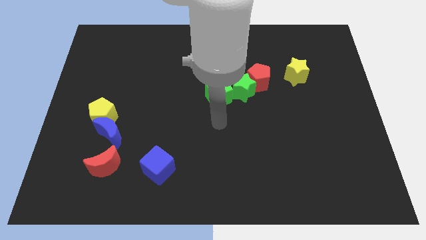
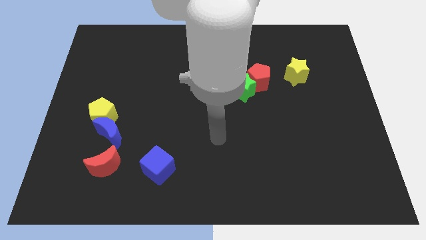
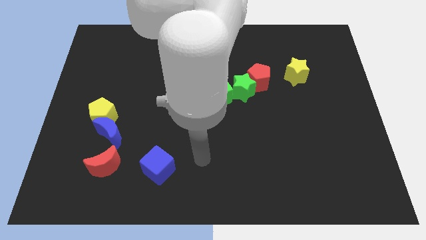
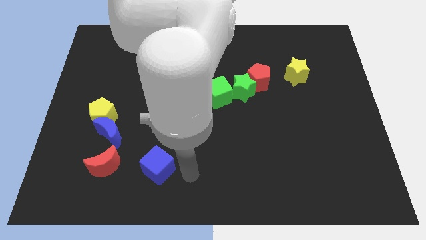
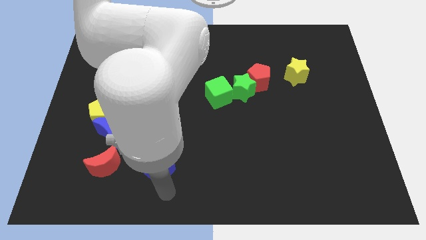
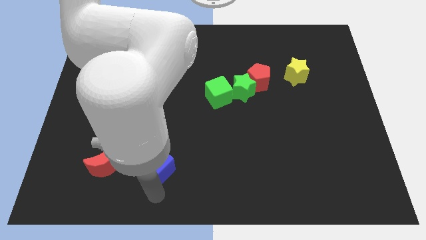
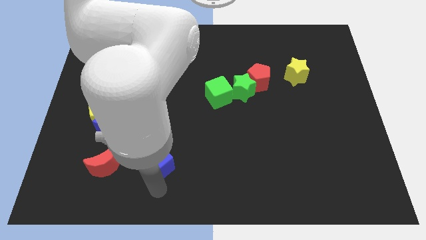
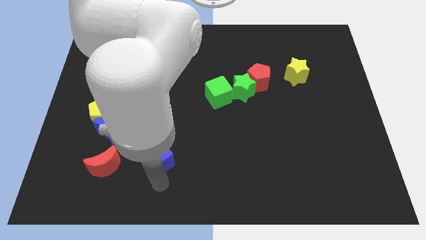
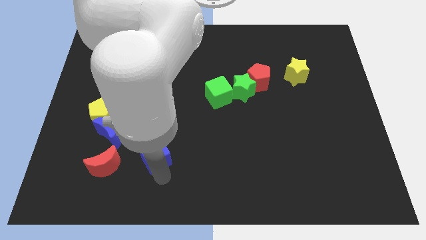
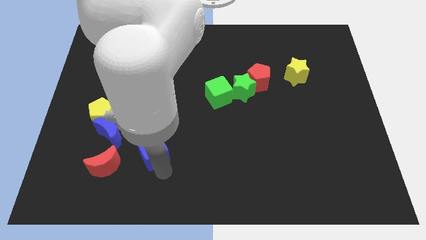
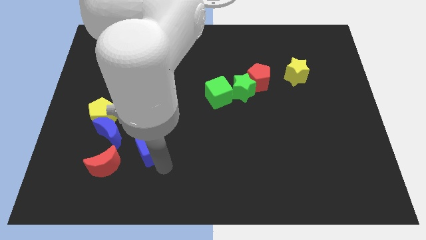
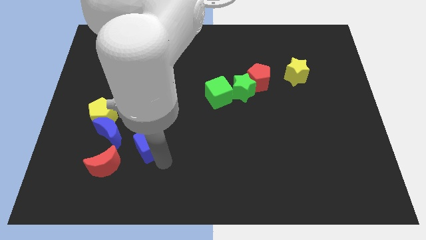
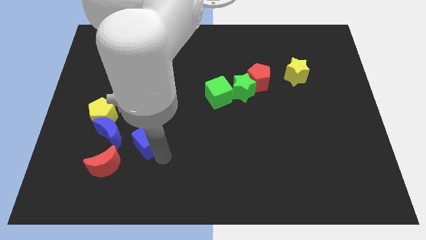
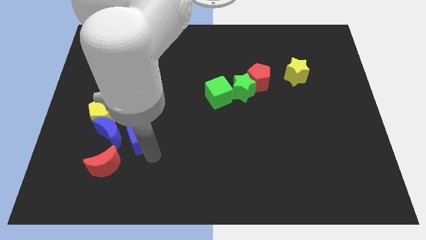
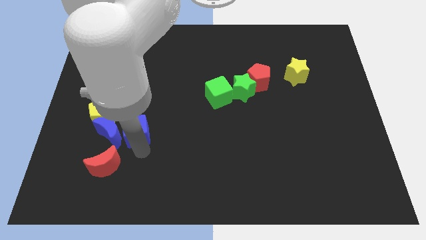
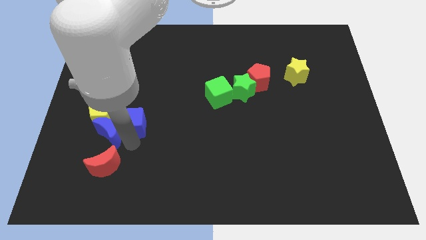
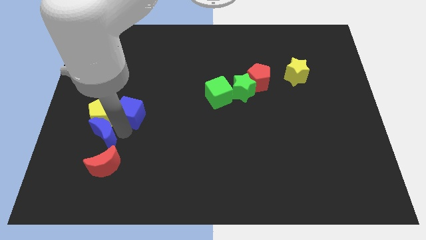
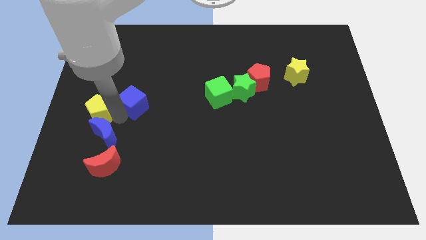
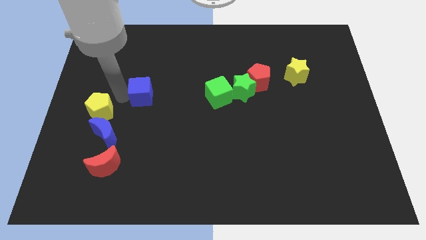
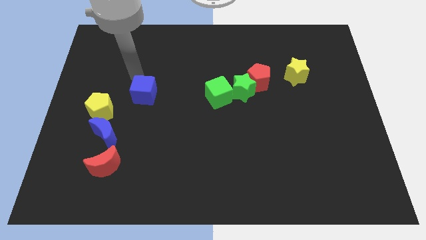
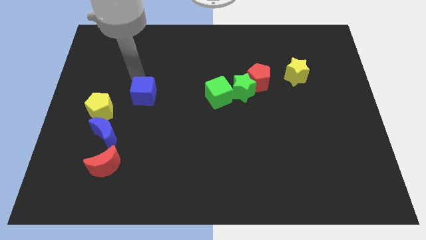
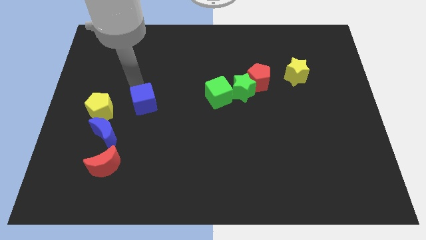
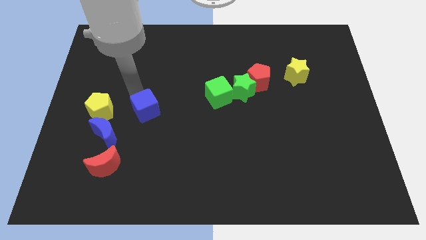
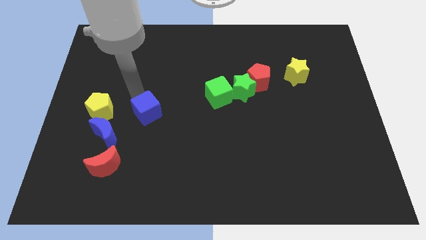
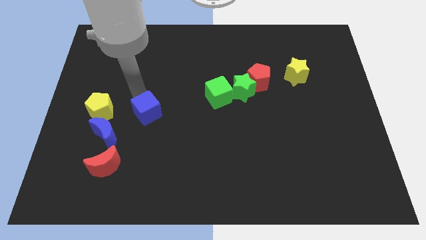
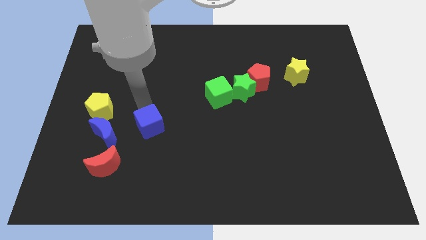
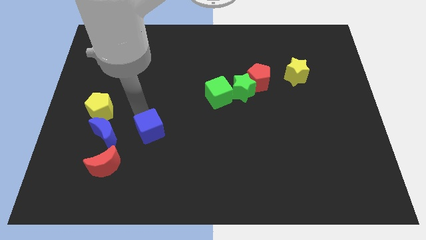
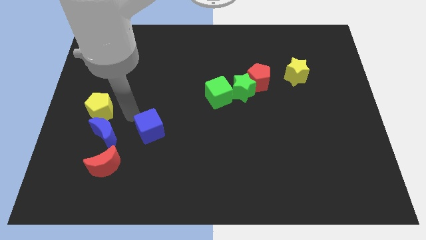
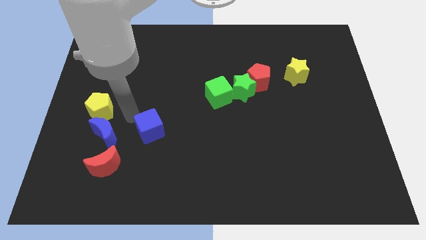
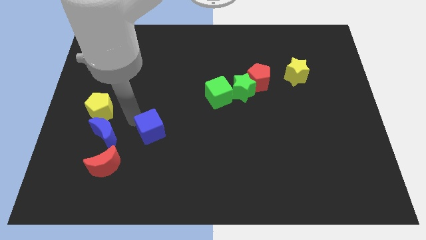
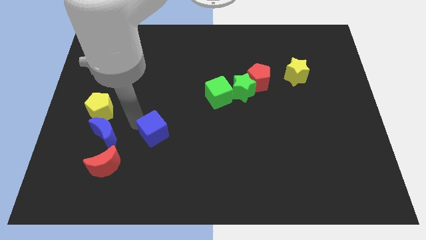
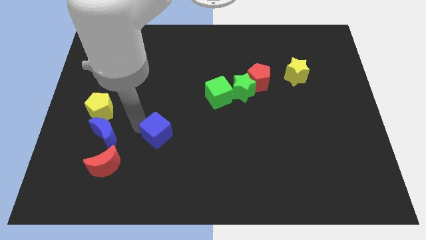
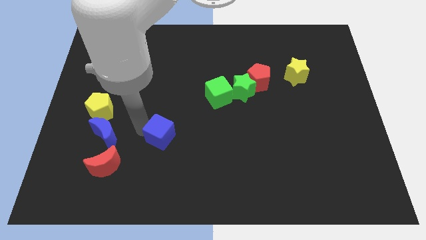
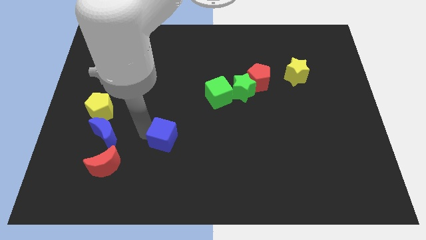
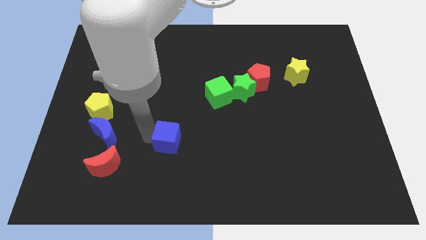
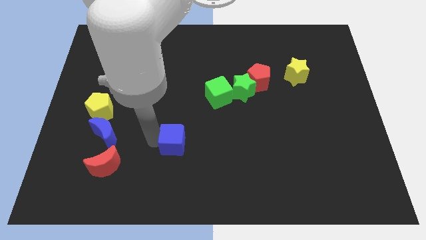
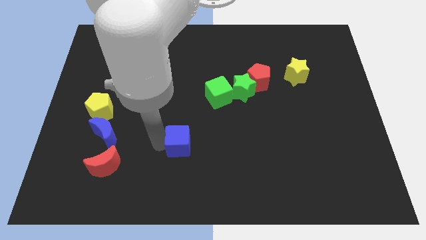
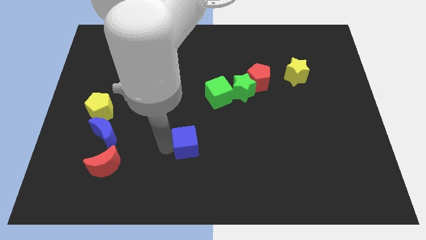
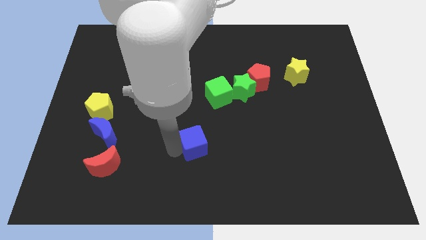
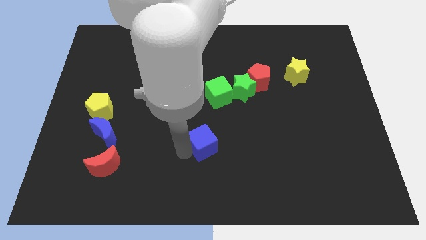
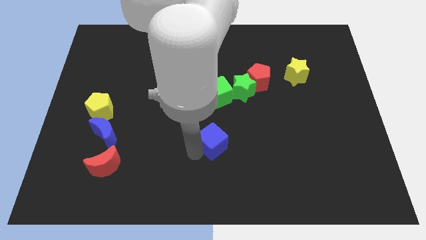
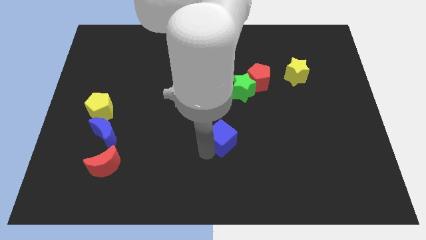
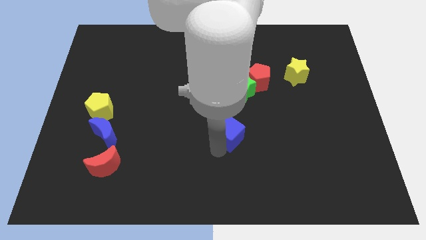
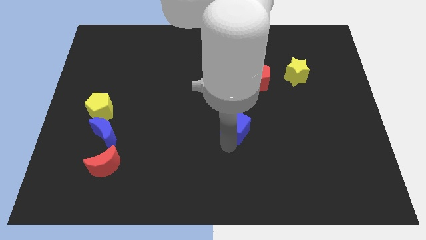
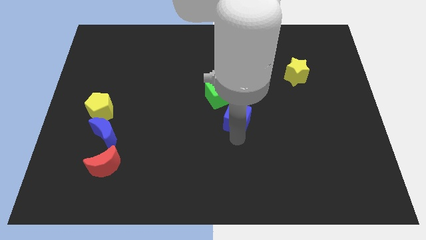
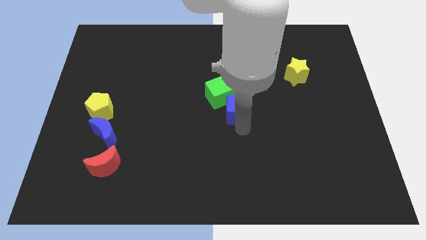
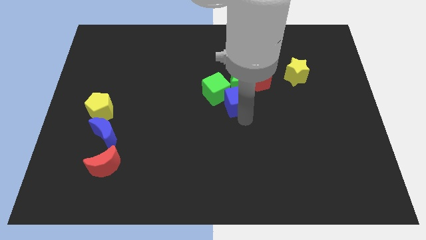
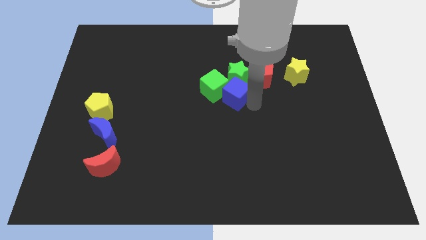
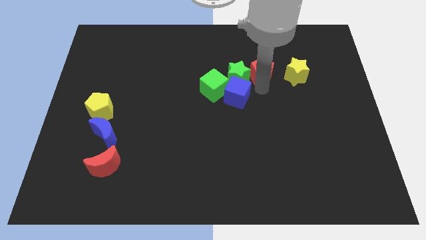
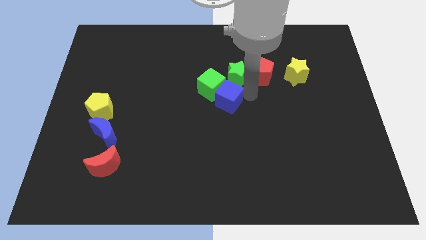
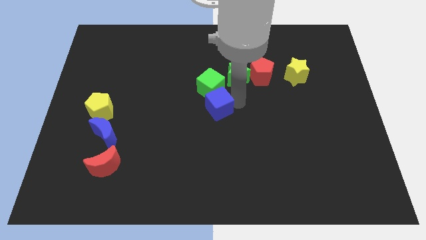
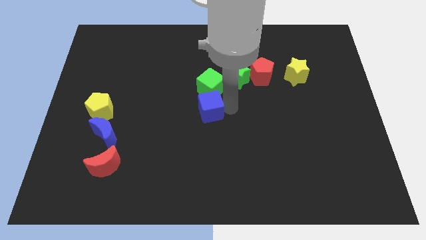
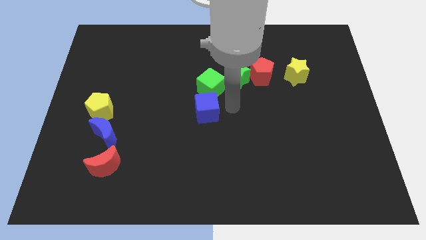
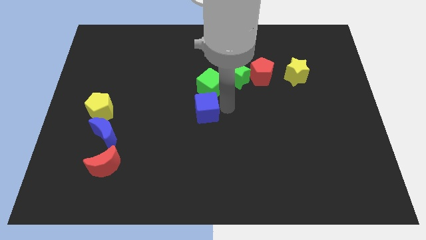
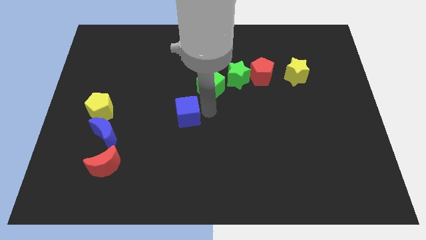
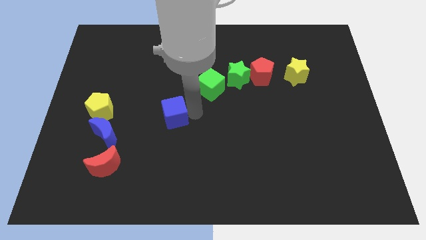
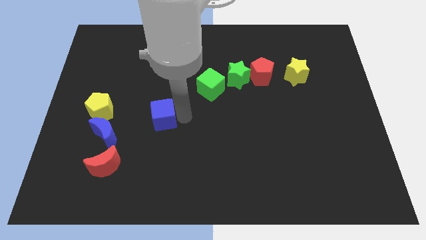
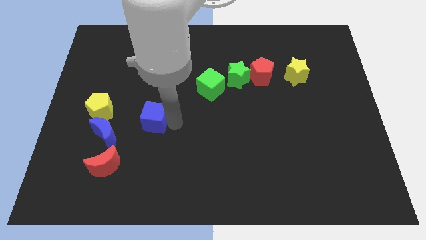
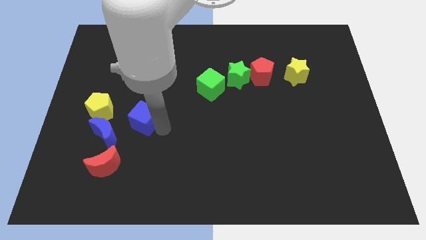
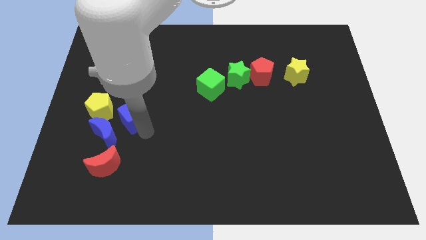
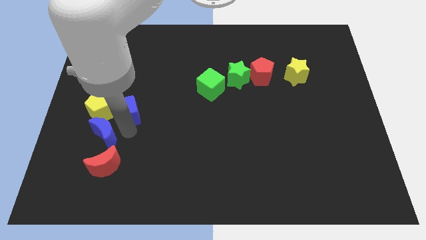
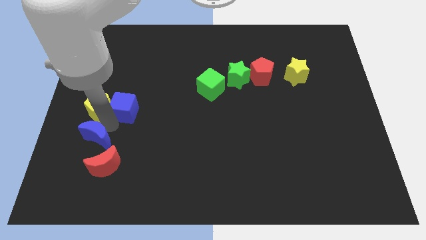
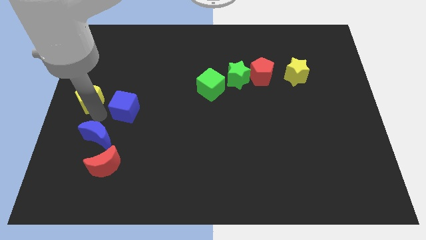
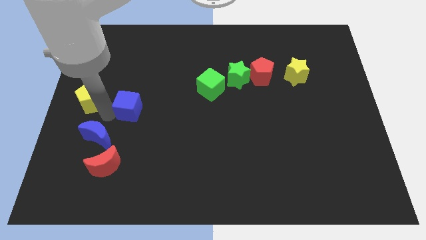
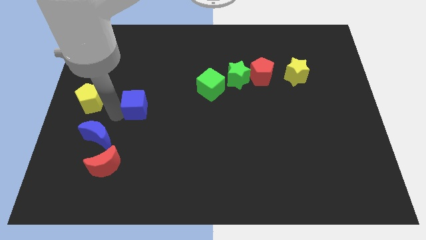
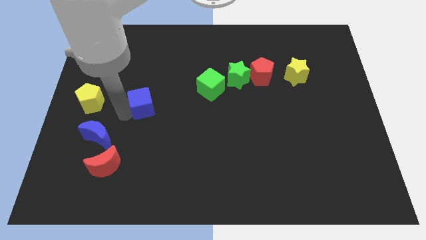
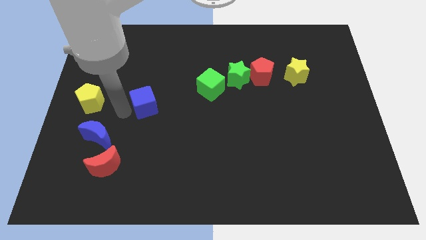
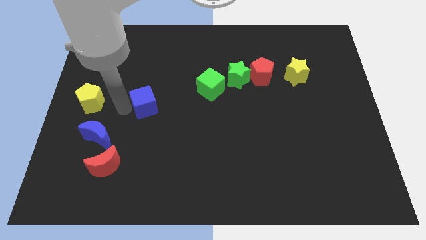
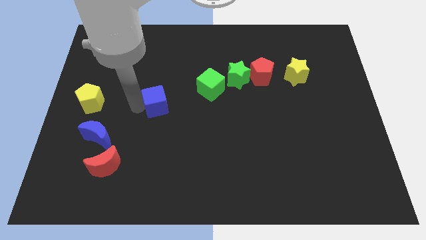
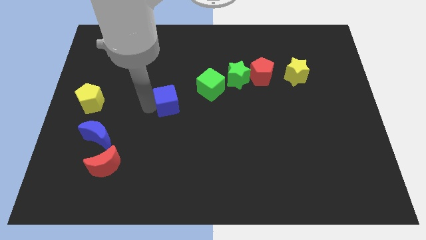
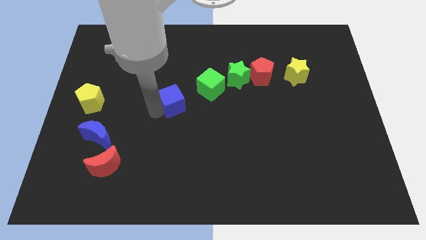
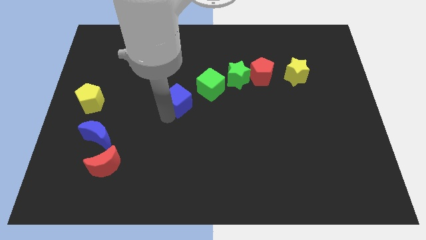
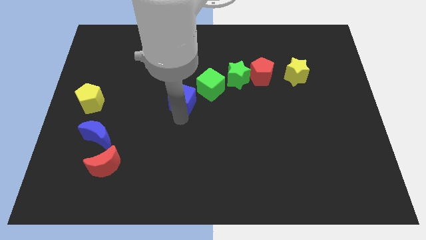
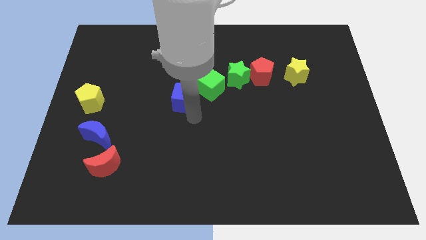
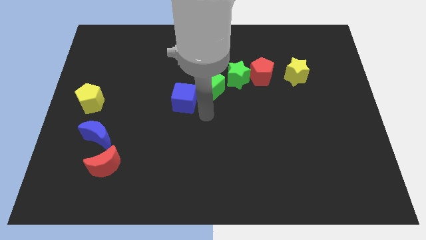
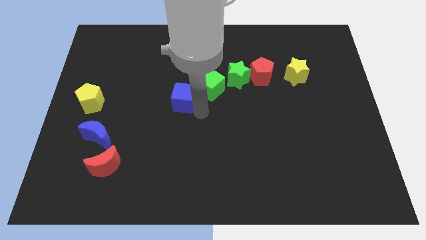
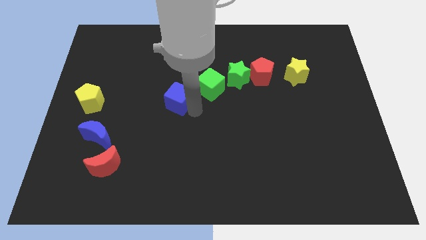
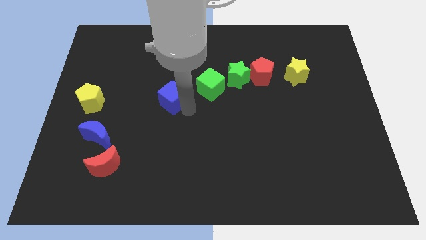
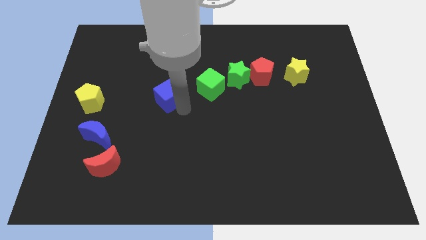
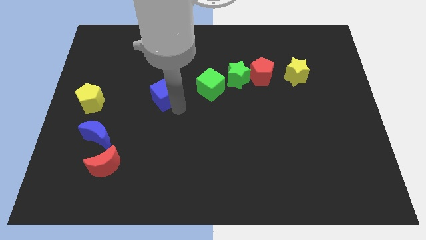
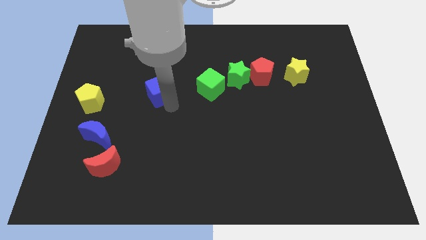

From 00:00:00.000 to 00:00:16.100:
push the blue cube up

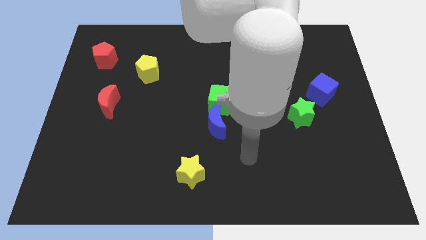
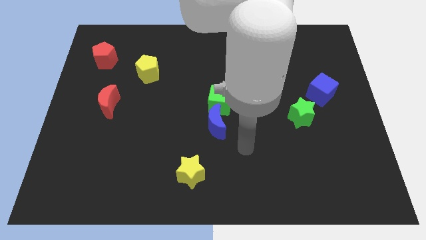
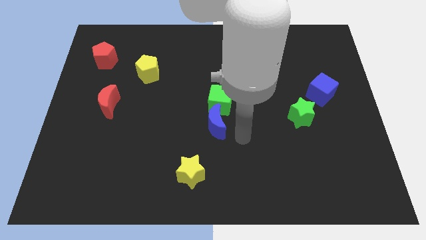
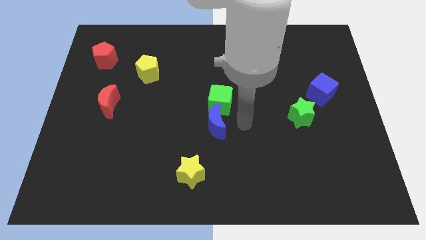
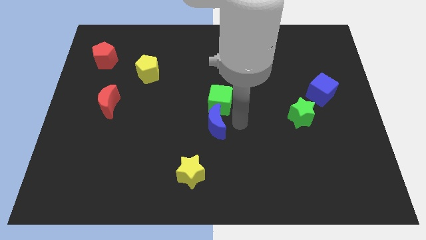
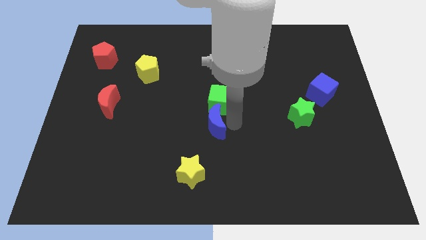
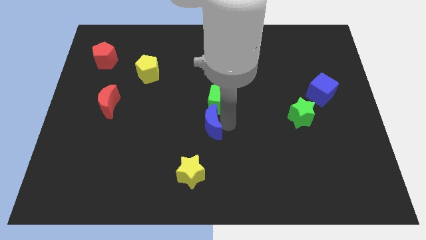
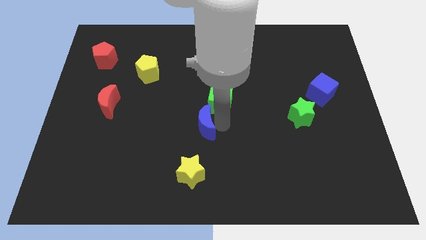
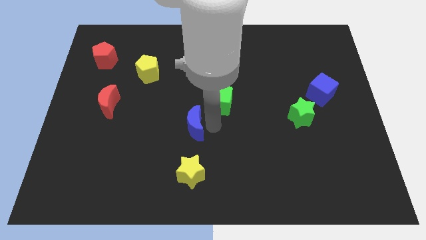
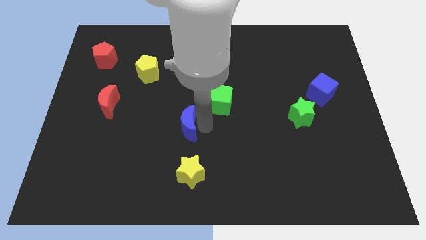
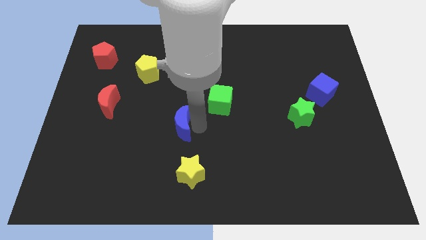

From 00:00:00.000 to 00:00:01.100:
slightly slide the blue moon left
